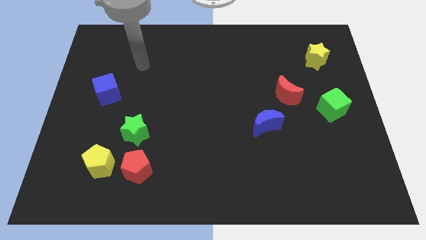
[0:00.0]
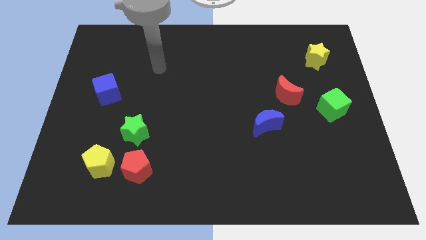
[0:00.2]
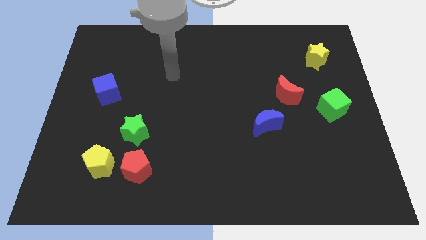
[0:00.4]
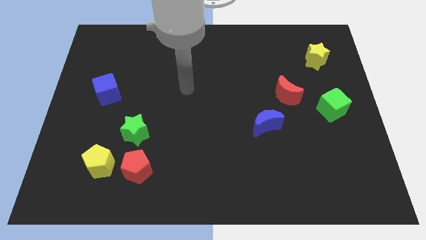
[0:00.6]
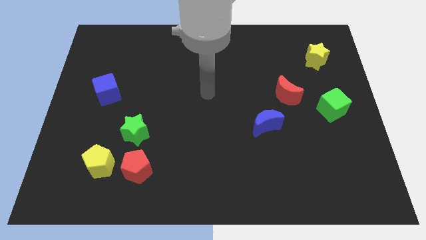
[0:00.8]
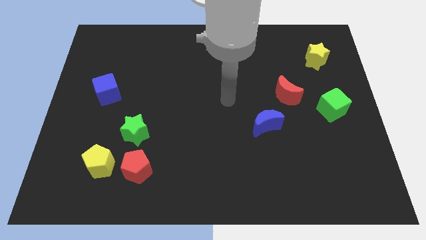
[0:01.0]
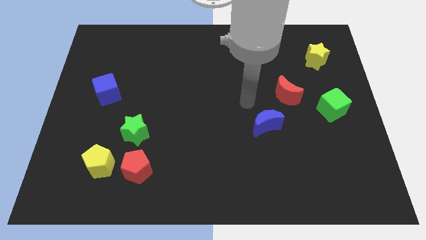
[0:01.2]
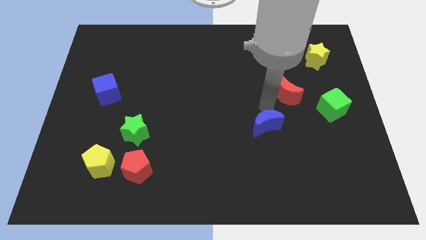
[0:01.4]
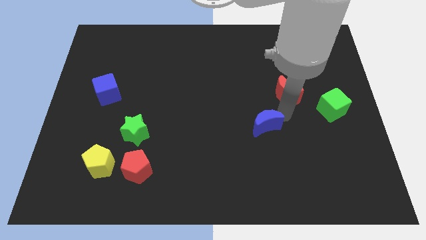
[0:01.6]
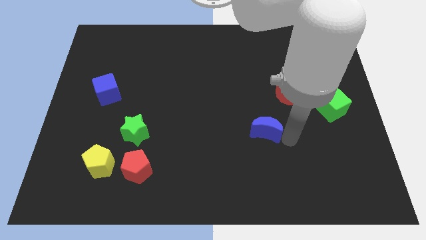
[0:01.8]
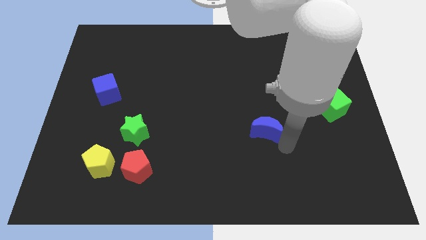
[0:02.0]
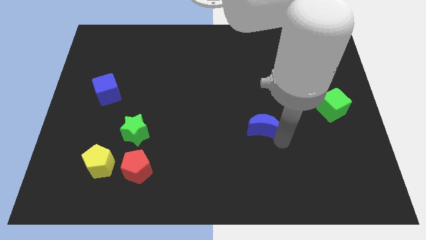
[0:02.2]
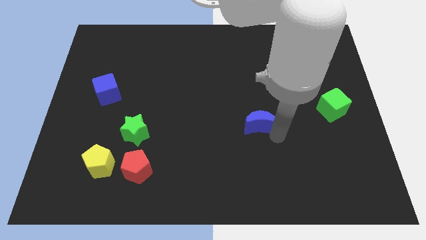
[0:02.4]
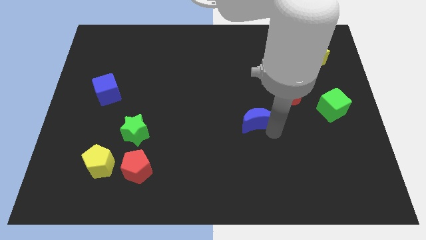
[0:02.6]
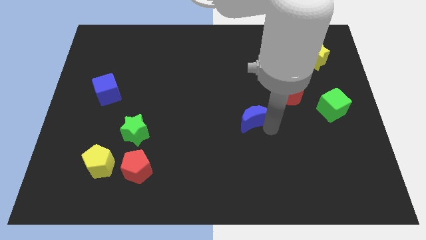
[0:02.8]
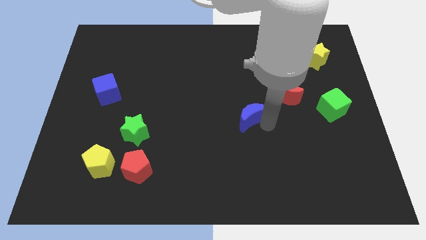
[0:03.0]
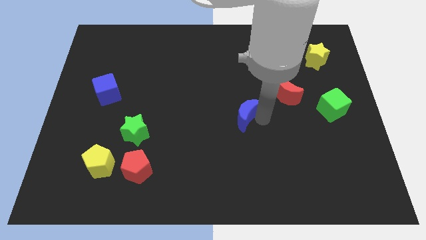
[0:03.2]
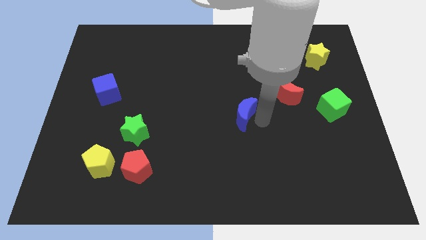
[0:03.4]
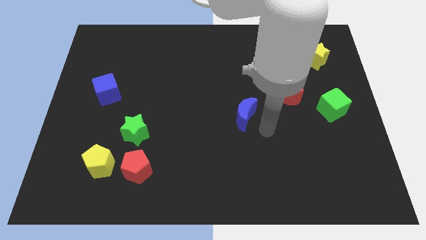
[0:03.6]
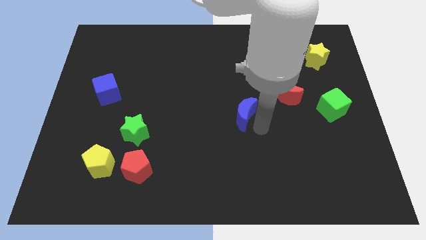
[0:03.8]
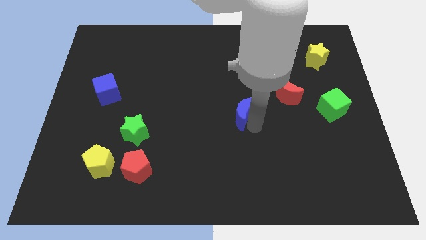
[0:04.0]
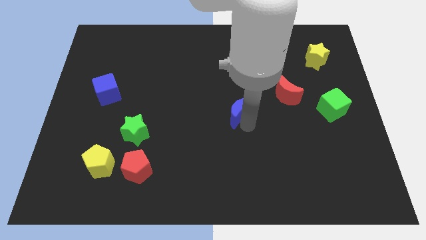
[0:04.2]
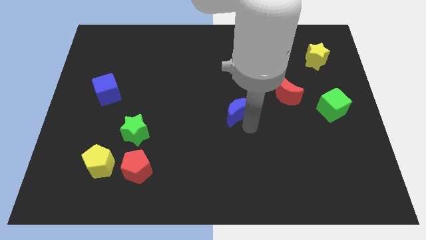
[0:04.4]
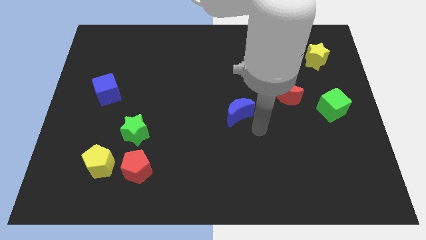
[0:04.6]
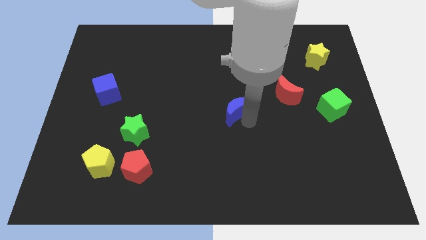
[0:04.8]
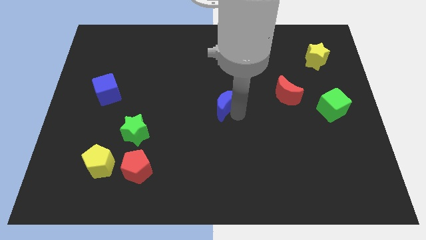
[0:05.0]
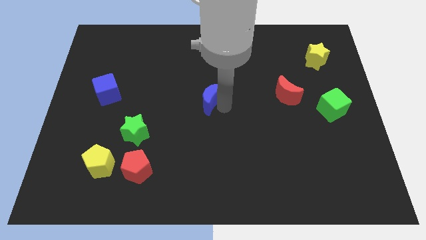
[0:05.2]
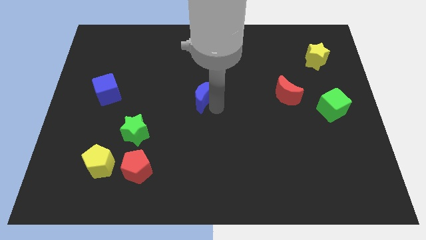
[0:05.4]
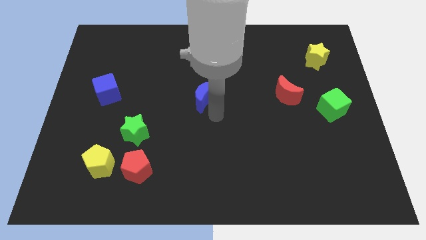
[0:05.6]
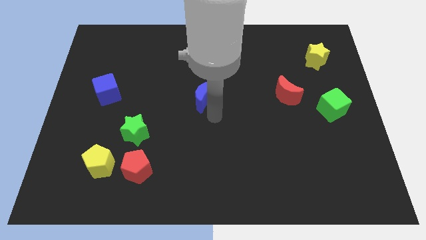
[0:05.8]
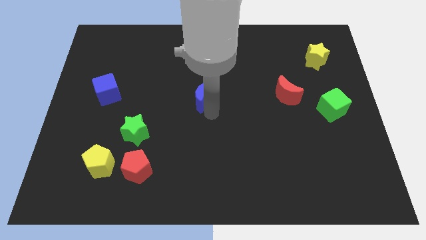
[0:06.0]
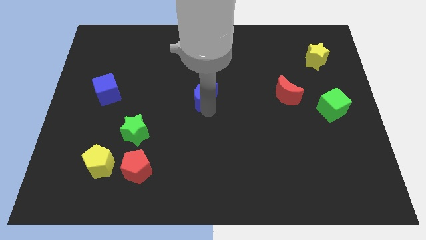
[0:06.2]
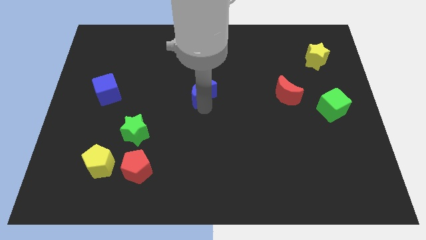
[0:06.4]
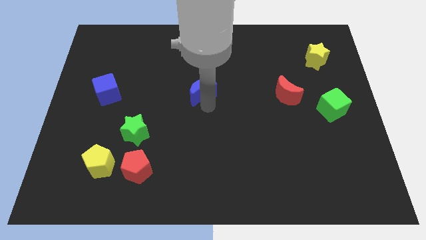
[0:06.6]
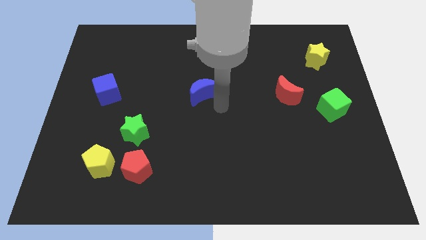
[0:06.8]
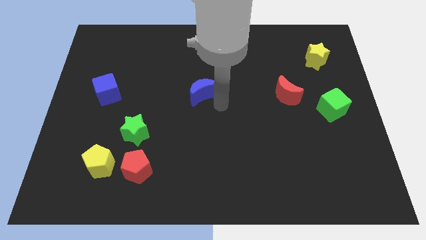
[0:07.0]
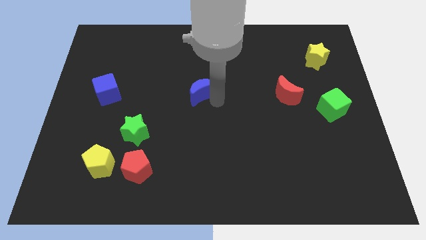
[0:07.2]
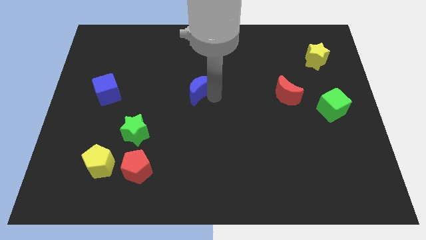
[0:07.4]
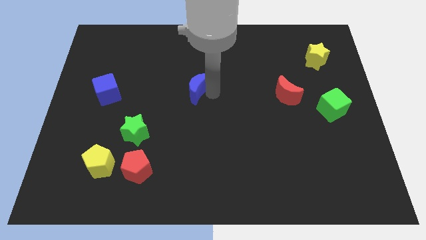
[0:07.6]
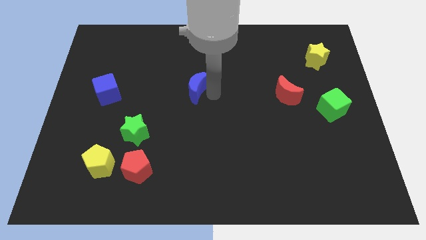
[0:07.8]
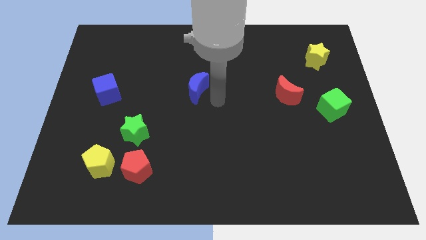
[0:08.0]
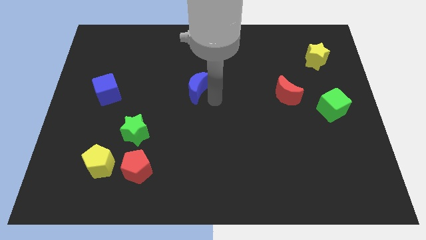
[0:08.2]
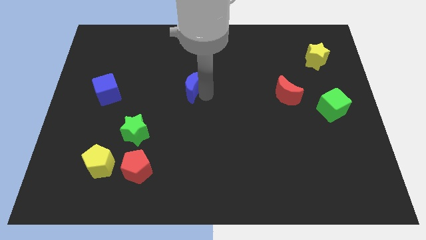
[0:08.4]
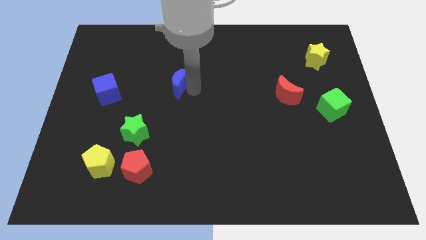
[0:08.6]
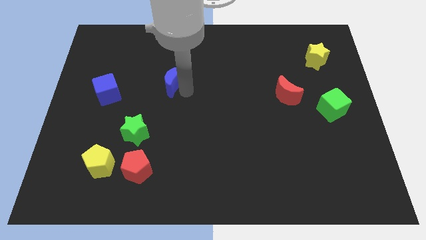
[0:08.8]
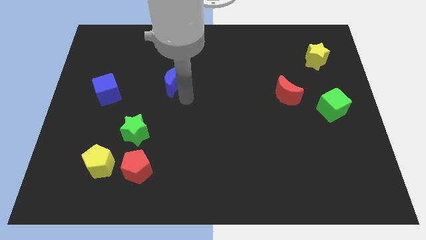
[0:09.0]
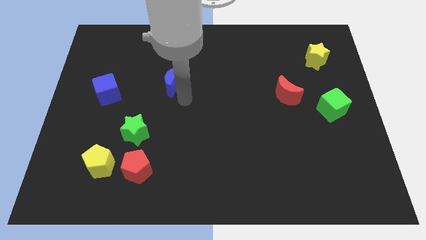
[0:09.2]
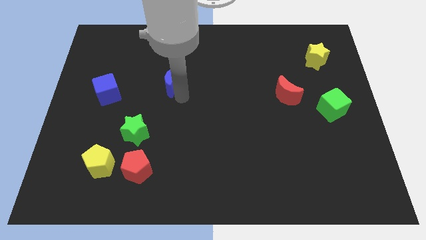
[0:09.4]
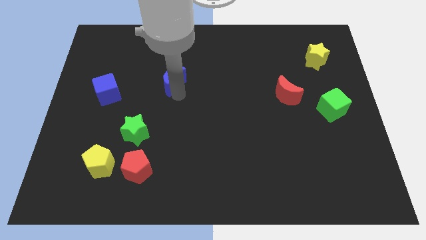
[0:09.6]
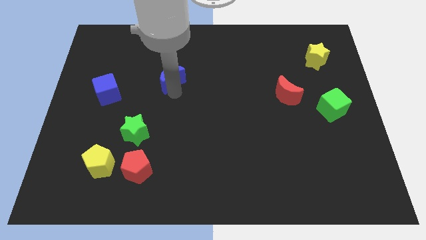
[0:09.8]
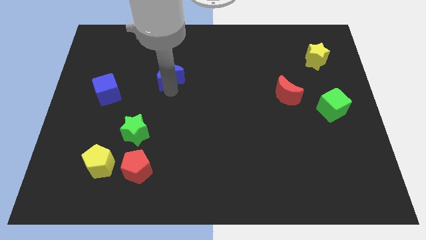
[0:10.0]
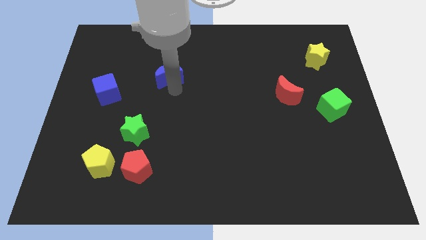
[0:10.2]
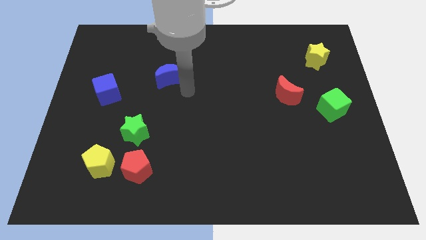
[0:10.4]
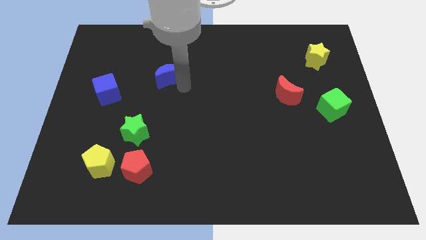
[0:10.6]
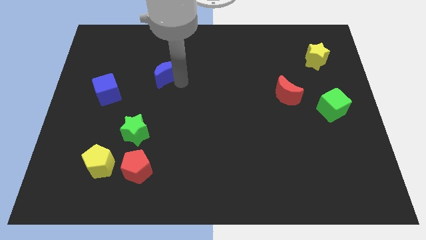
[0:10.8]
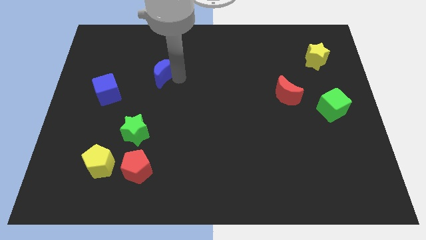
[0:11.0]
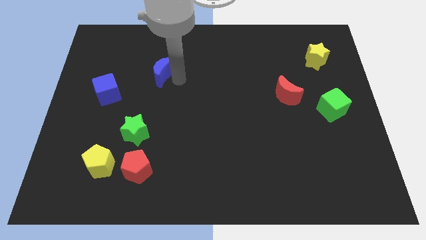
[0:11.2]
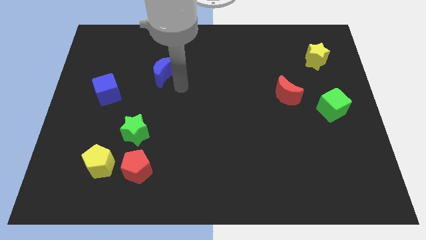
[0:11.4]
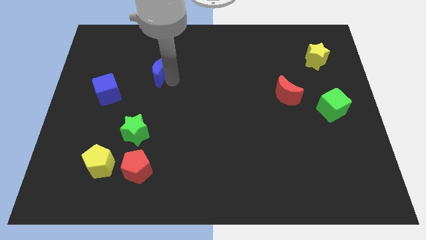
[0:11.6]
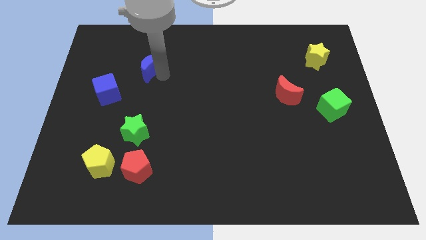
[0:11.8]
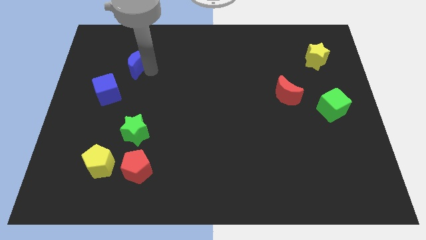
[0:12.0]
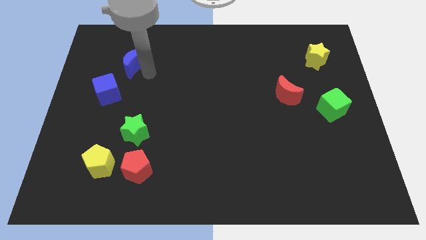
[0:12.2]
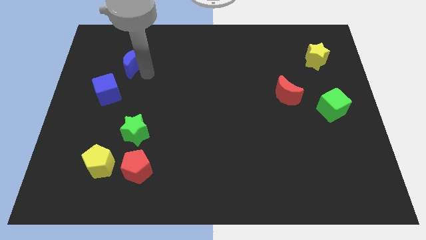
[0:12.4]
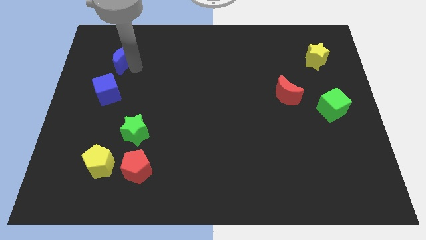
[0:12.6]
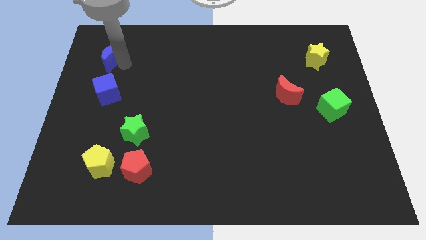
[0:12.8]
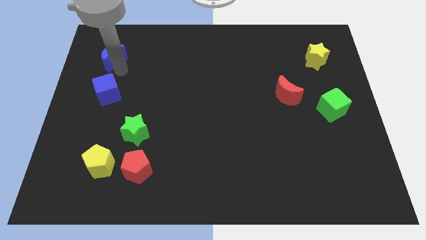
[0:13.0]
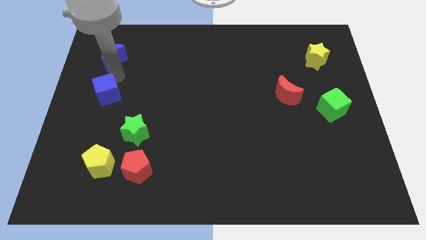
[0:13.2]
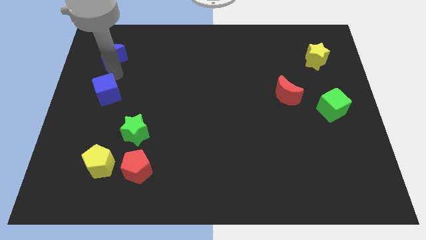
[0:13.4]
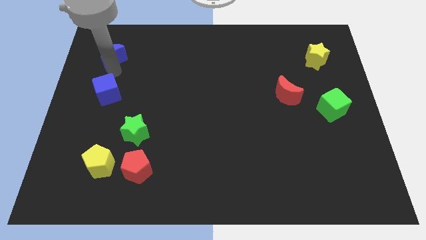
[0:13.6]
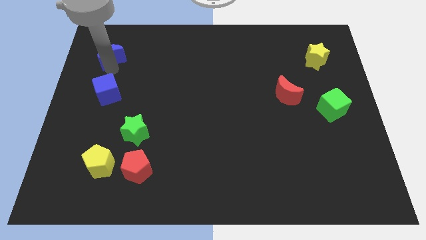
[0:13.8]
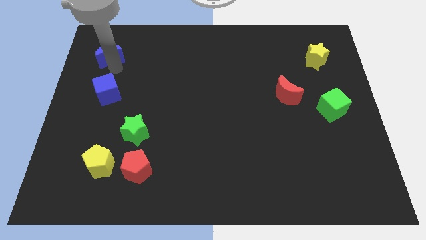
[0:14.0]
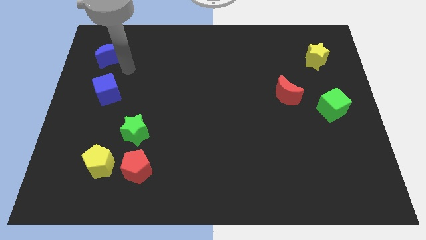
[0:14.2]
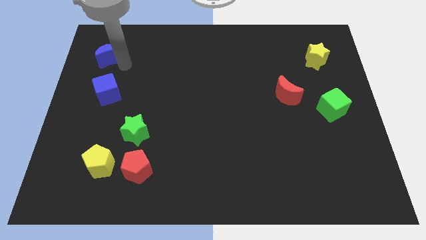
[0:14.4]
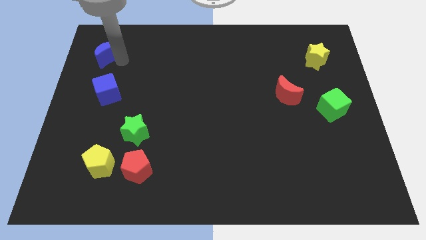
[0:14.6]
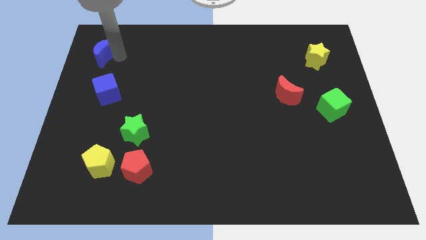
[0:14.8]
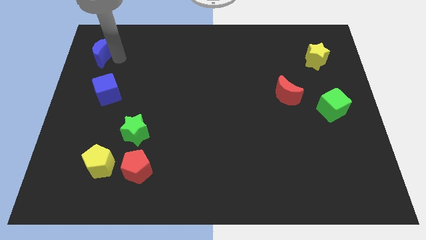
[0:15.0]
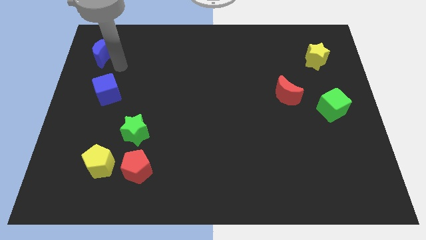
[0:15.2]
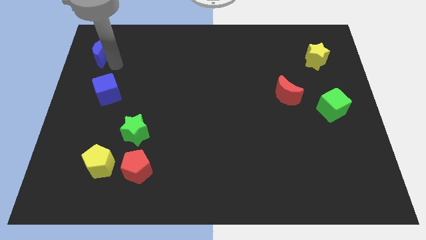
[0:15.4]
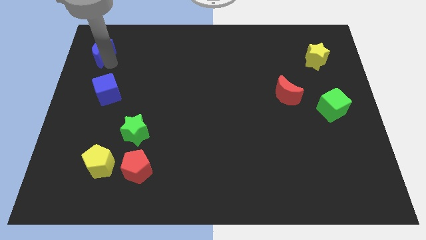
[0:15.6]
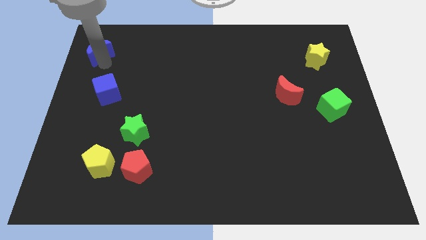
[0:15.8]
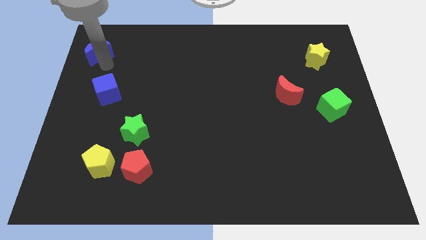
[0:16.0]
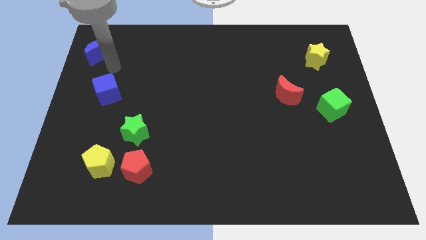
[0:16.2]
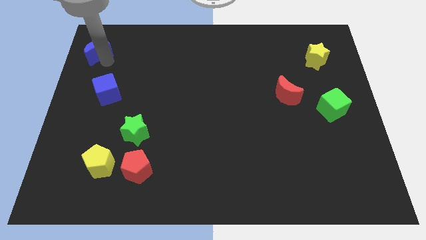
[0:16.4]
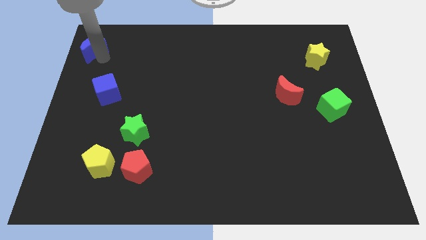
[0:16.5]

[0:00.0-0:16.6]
slide the blue moon to the upper left corner
